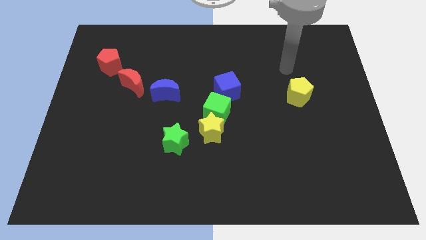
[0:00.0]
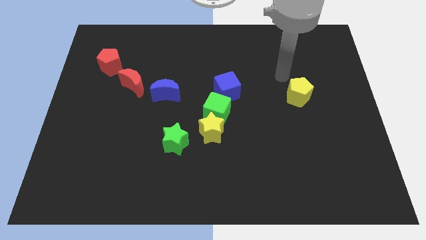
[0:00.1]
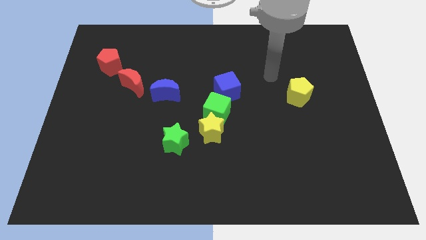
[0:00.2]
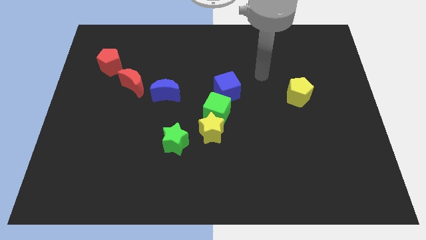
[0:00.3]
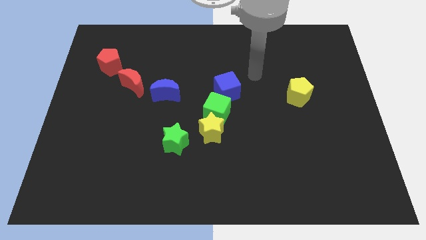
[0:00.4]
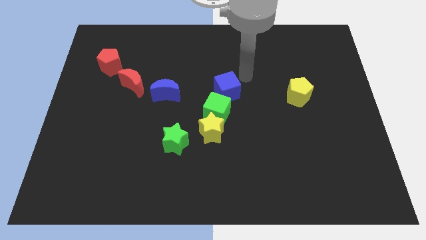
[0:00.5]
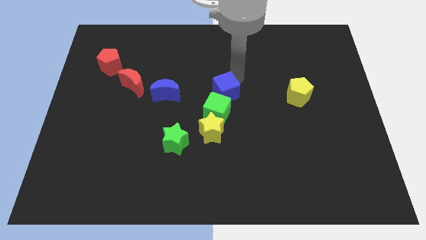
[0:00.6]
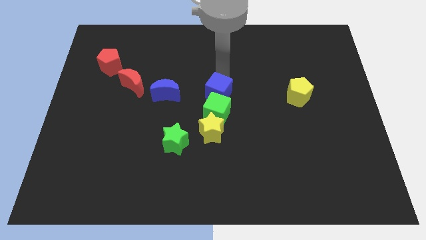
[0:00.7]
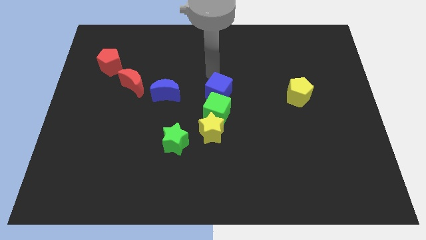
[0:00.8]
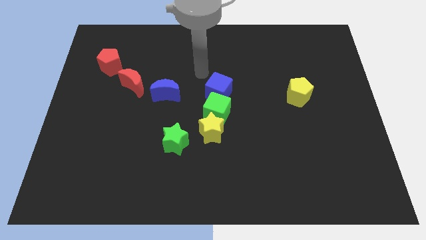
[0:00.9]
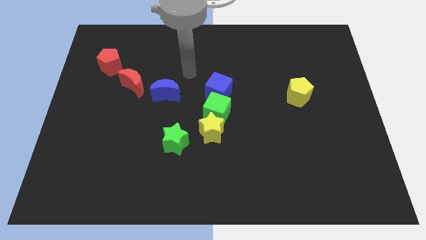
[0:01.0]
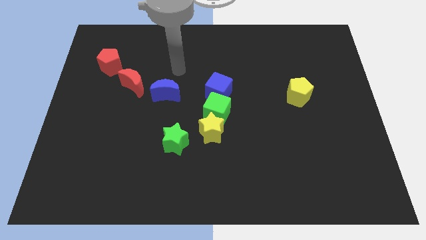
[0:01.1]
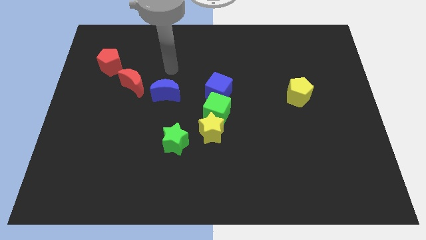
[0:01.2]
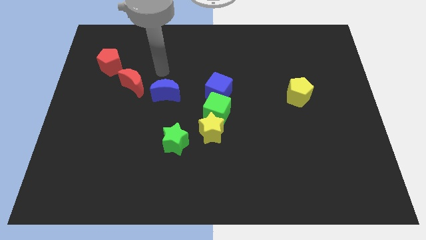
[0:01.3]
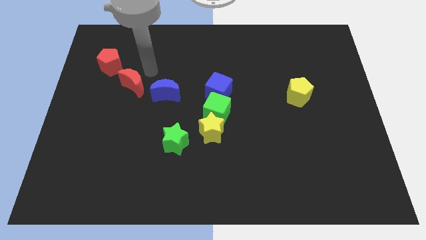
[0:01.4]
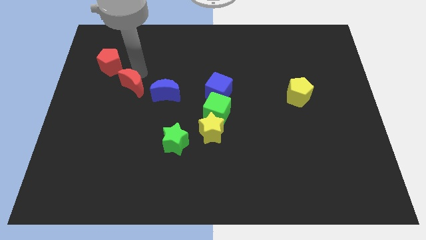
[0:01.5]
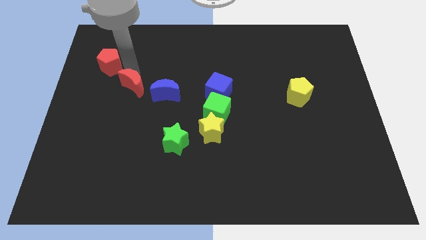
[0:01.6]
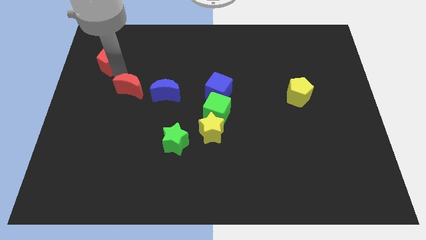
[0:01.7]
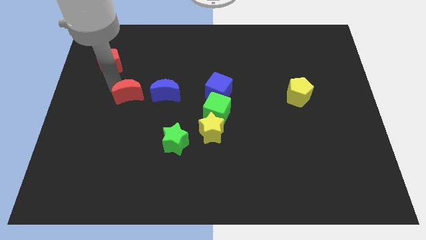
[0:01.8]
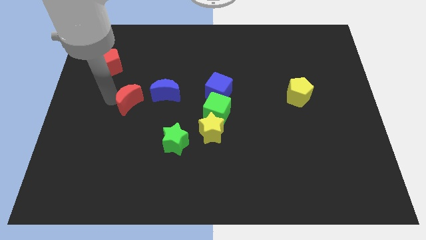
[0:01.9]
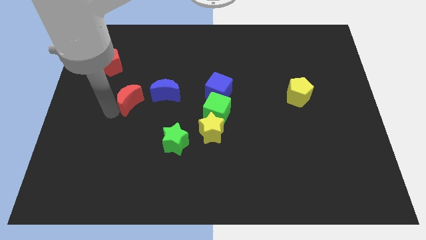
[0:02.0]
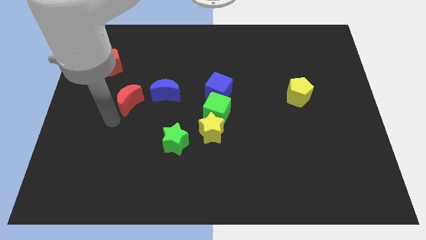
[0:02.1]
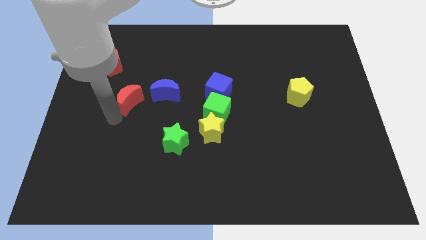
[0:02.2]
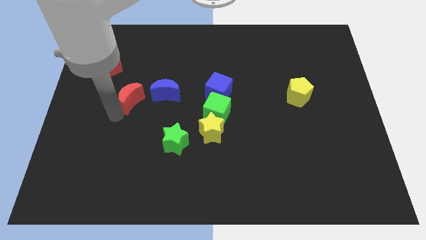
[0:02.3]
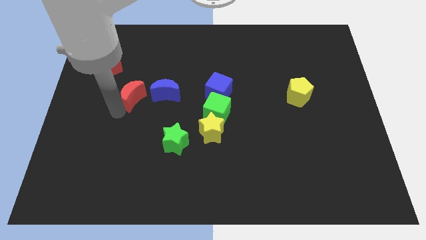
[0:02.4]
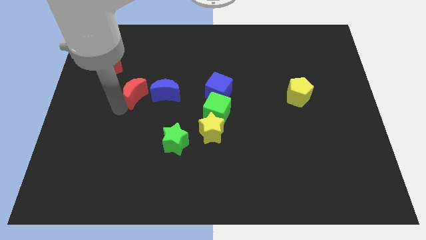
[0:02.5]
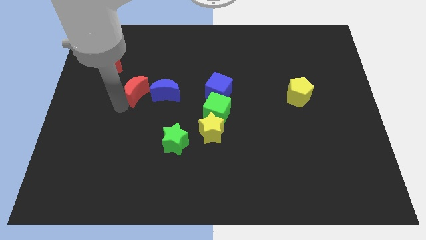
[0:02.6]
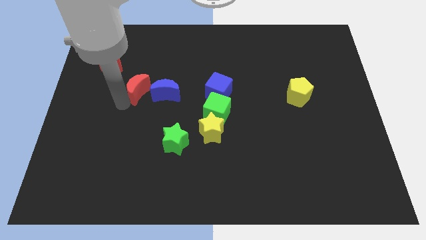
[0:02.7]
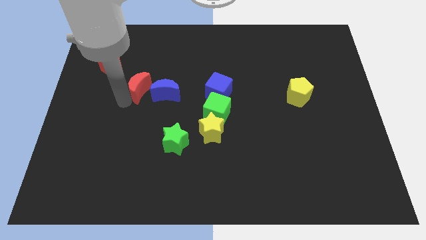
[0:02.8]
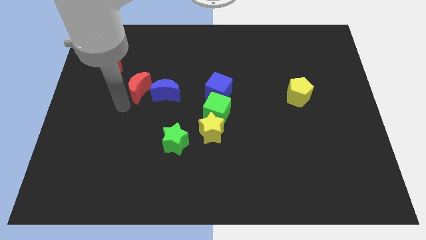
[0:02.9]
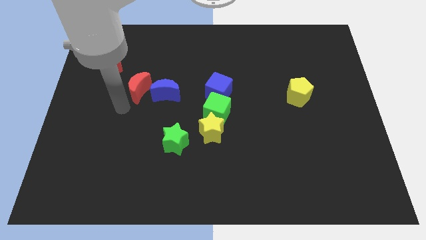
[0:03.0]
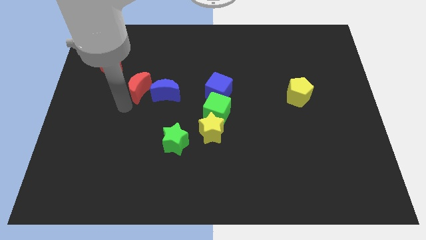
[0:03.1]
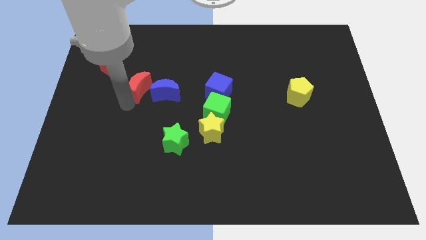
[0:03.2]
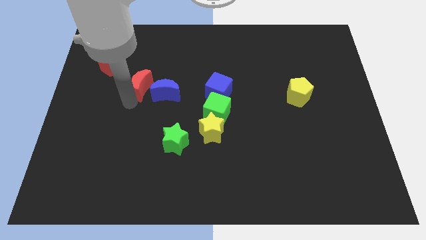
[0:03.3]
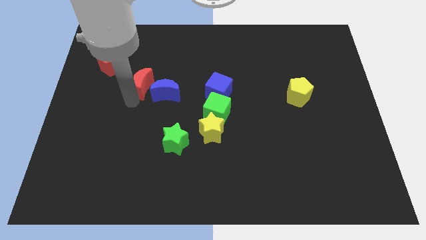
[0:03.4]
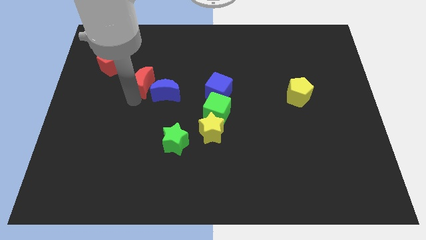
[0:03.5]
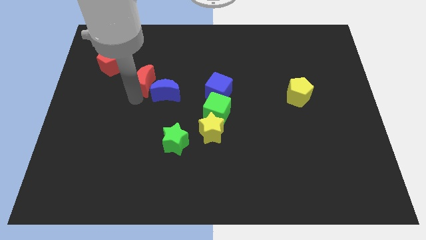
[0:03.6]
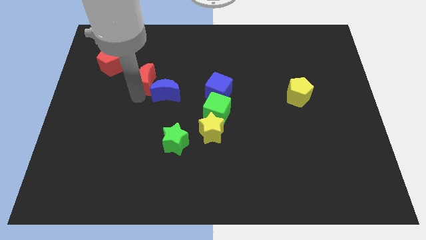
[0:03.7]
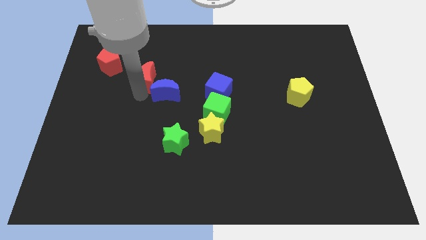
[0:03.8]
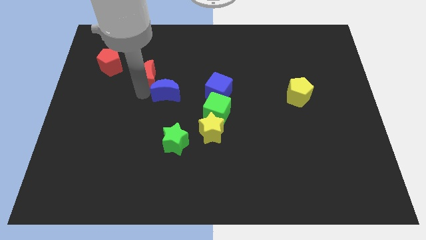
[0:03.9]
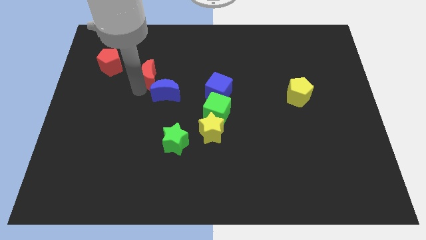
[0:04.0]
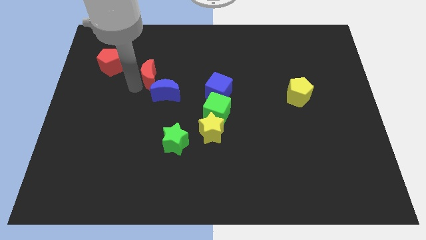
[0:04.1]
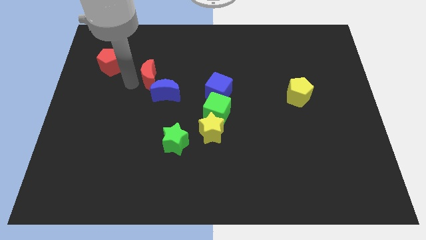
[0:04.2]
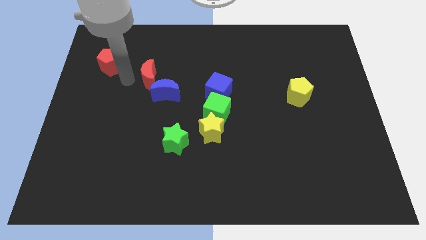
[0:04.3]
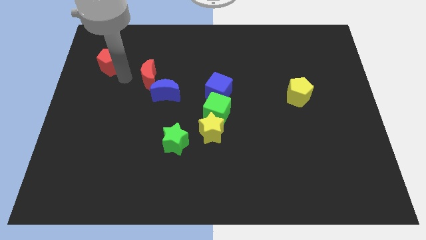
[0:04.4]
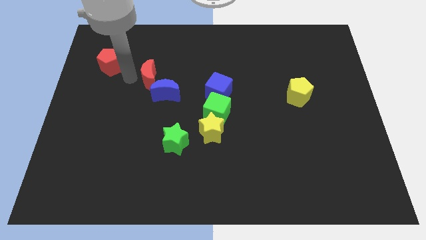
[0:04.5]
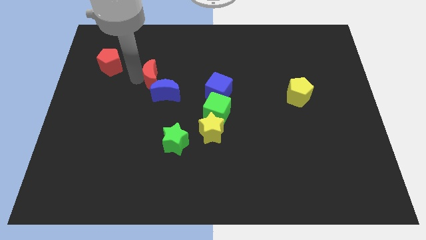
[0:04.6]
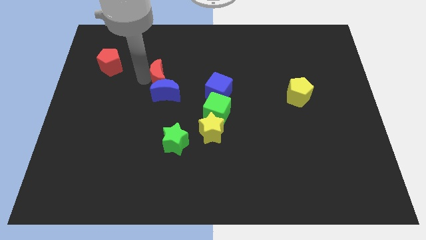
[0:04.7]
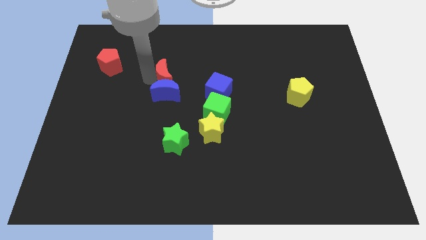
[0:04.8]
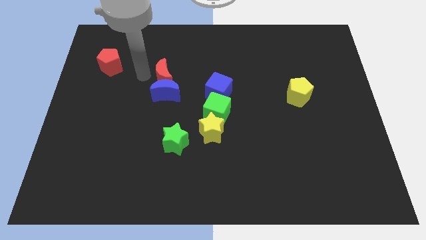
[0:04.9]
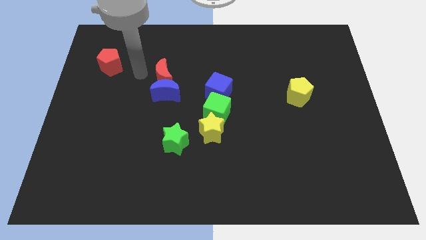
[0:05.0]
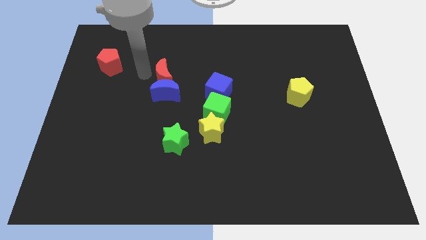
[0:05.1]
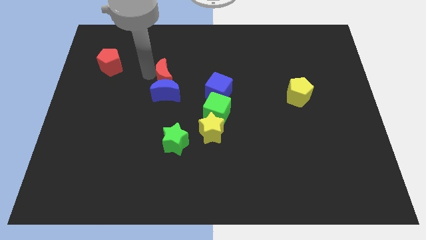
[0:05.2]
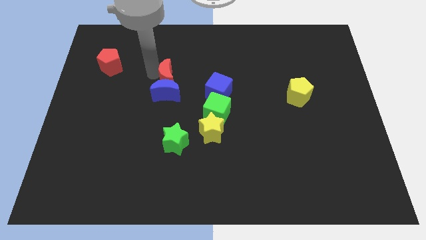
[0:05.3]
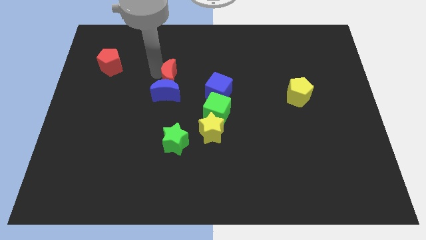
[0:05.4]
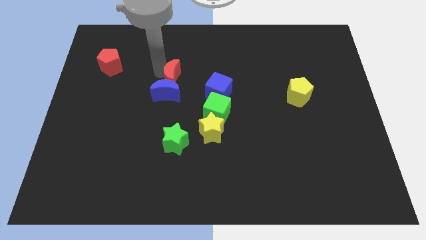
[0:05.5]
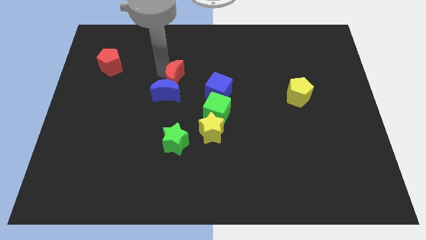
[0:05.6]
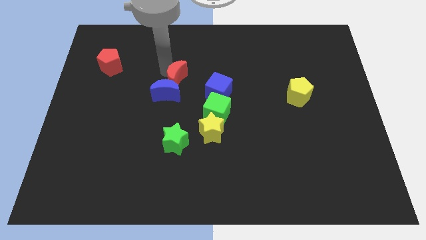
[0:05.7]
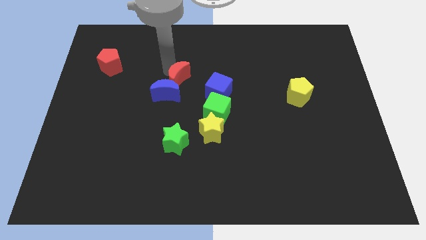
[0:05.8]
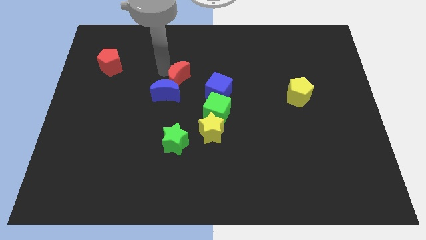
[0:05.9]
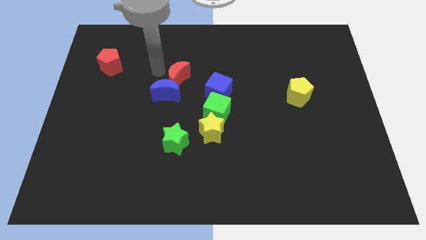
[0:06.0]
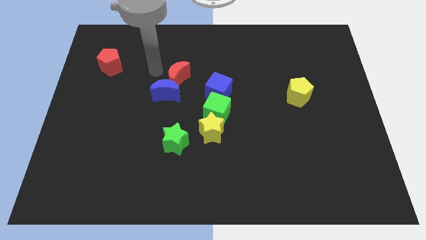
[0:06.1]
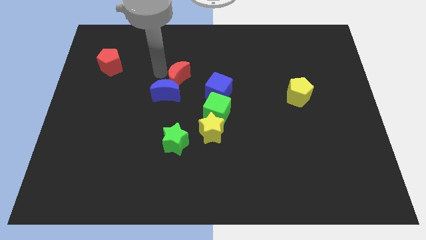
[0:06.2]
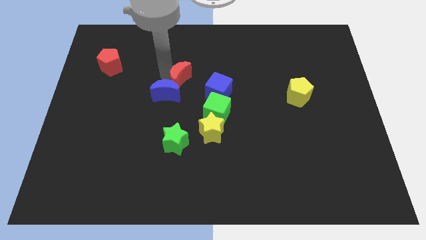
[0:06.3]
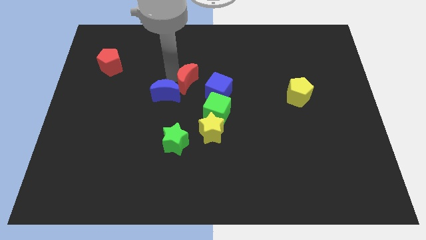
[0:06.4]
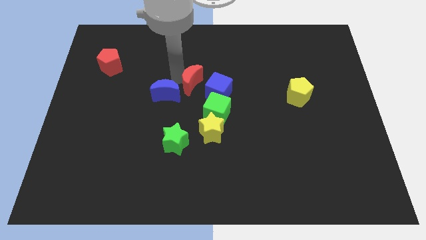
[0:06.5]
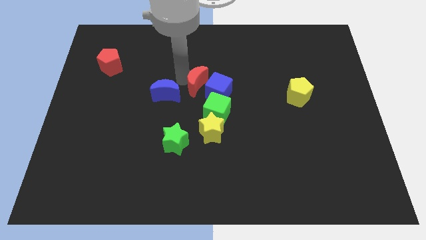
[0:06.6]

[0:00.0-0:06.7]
put the red moon towards the blue cube
